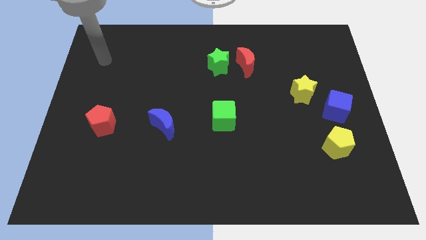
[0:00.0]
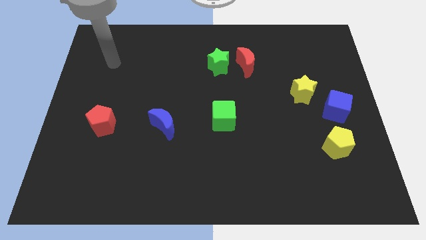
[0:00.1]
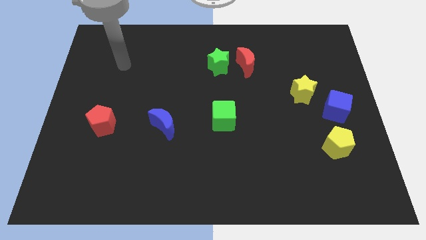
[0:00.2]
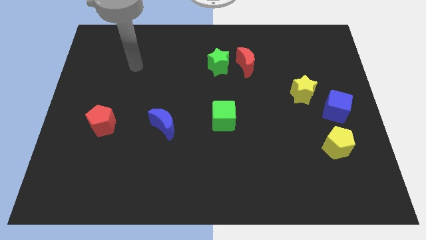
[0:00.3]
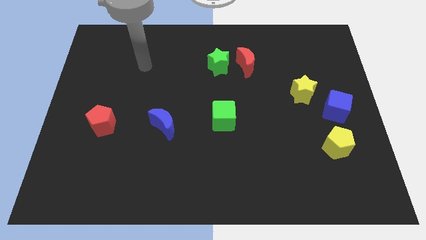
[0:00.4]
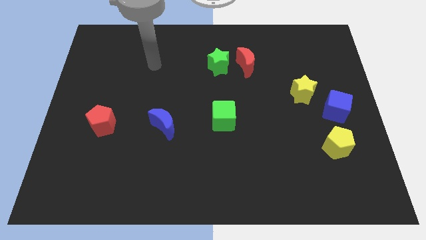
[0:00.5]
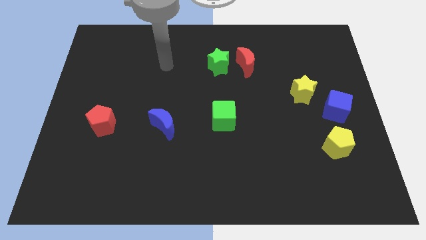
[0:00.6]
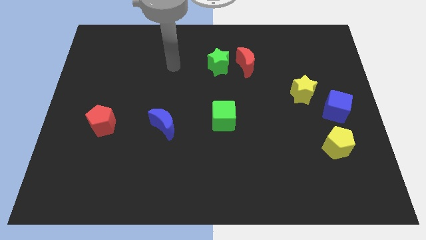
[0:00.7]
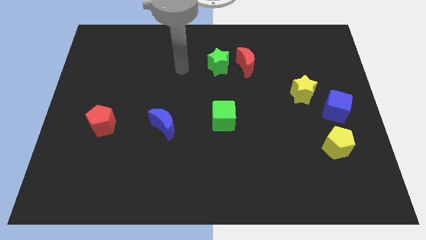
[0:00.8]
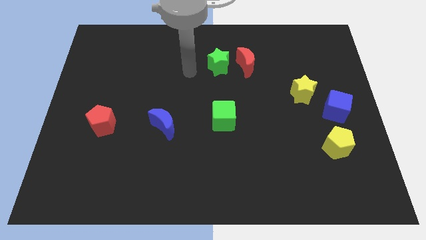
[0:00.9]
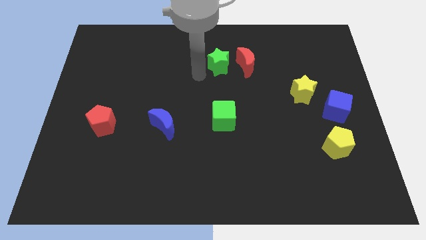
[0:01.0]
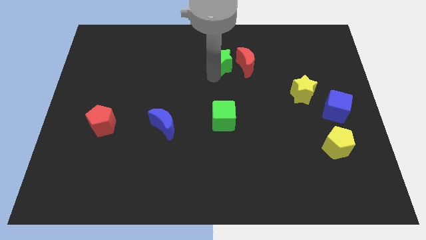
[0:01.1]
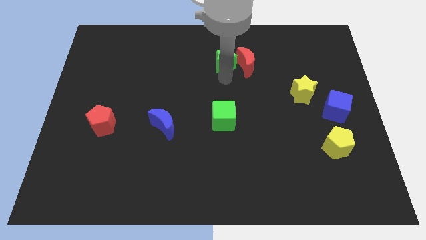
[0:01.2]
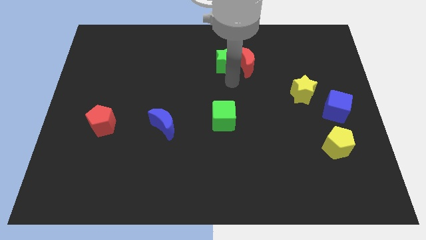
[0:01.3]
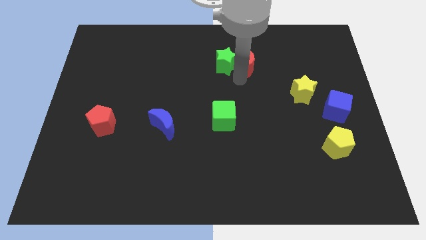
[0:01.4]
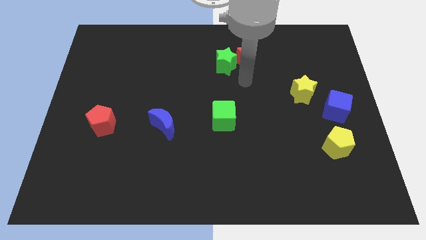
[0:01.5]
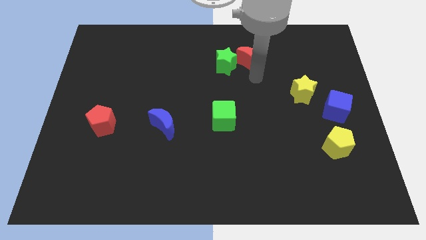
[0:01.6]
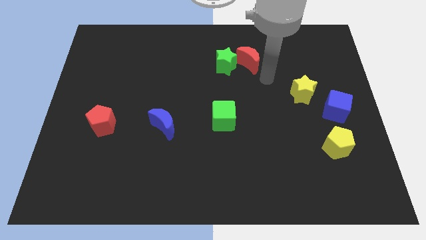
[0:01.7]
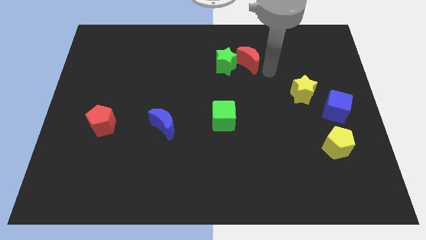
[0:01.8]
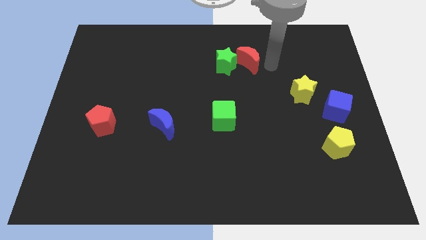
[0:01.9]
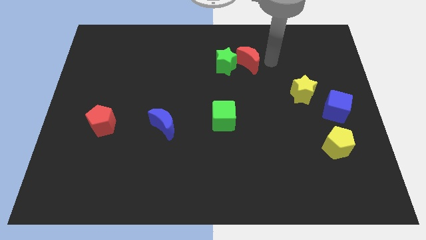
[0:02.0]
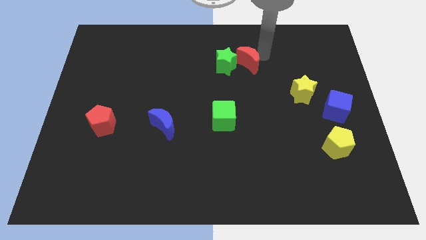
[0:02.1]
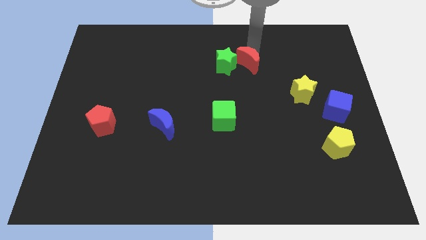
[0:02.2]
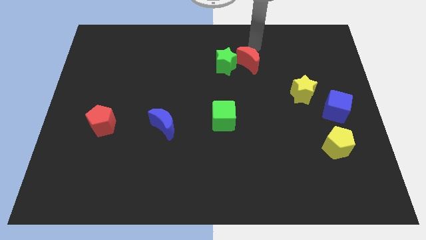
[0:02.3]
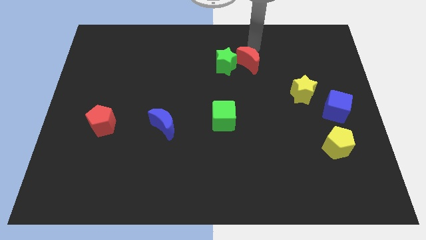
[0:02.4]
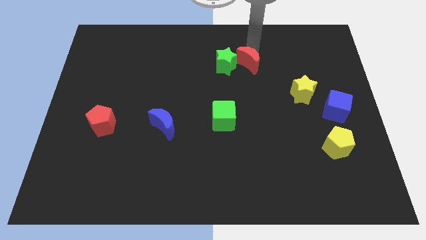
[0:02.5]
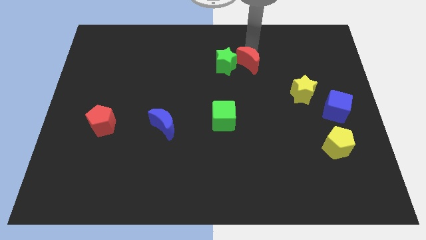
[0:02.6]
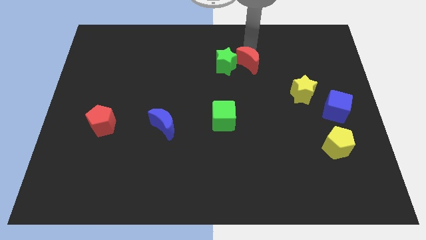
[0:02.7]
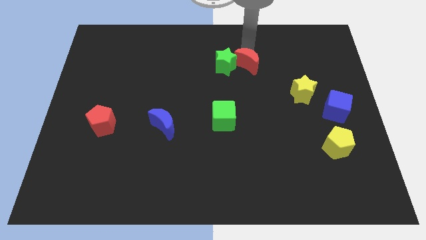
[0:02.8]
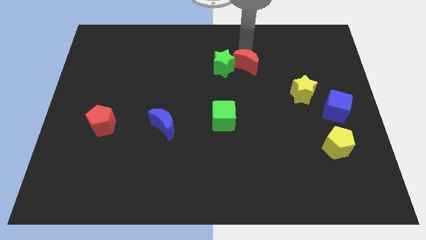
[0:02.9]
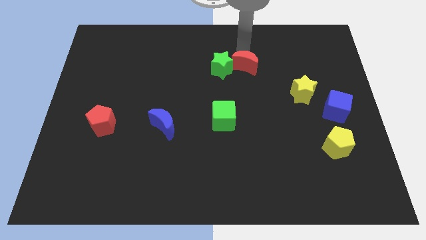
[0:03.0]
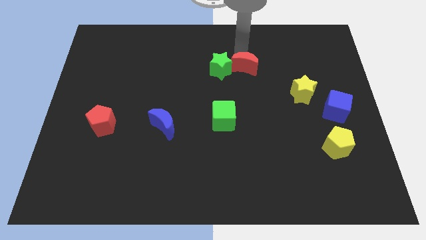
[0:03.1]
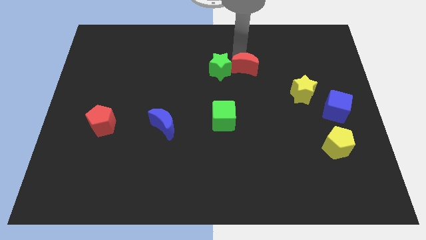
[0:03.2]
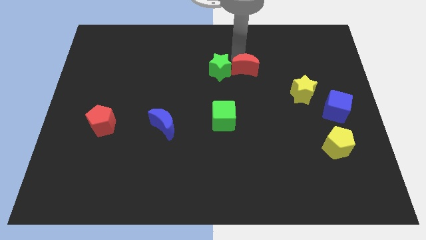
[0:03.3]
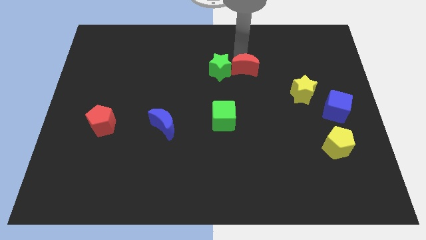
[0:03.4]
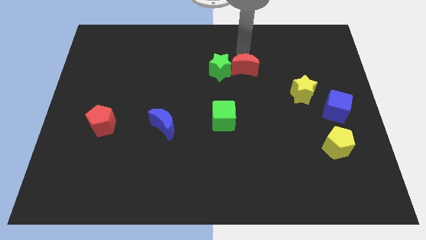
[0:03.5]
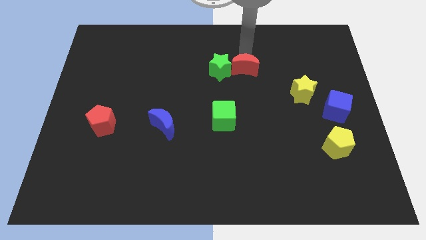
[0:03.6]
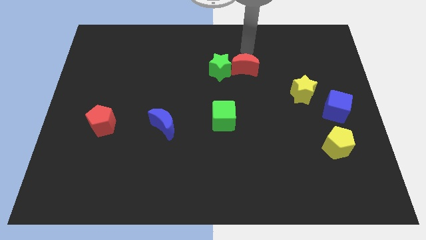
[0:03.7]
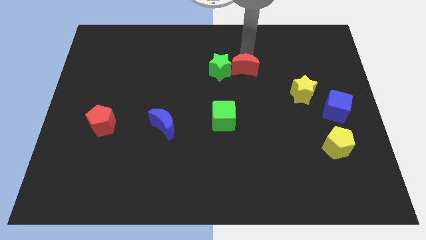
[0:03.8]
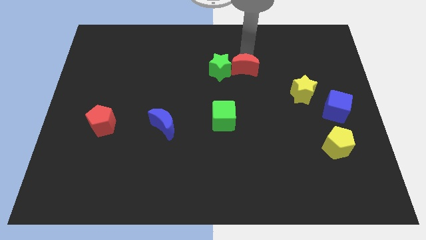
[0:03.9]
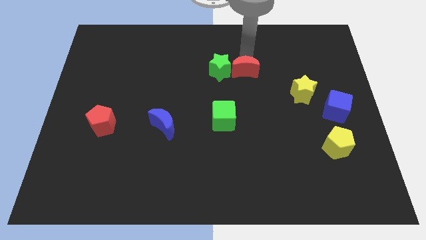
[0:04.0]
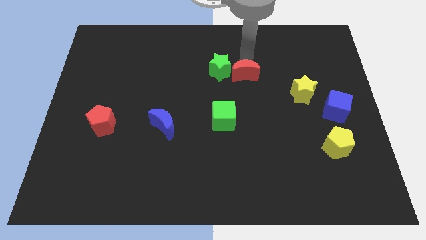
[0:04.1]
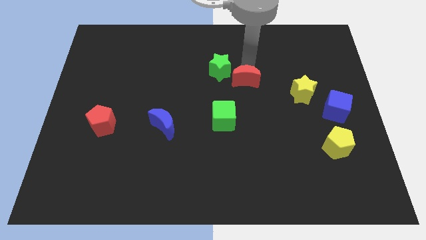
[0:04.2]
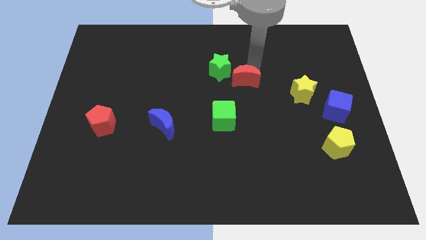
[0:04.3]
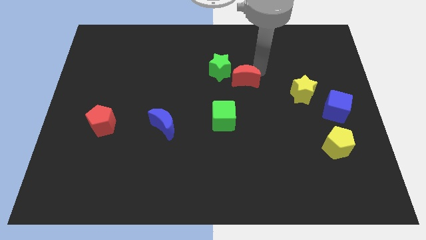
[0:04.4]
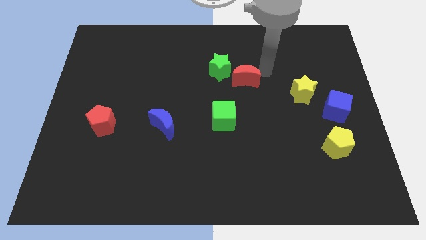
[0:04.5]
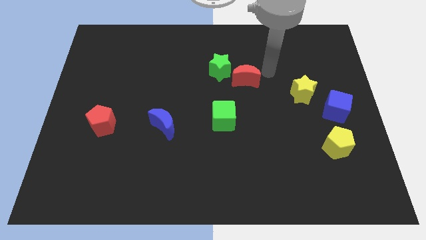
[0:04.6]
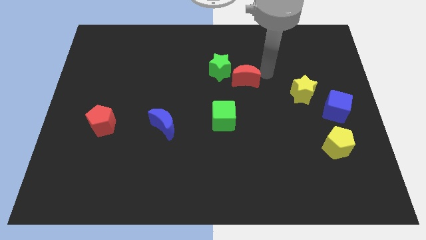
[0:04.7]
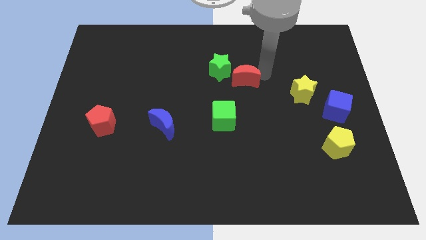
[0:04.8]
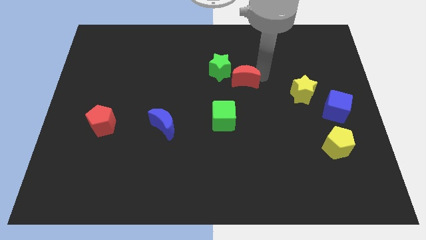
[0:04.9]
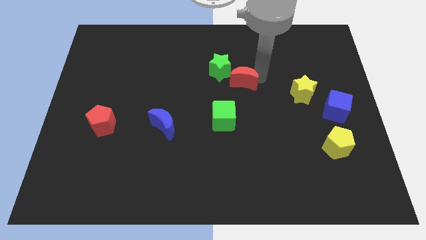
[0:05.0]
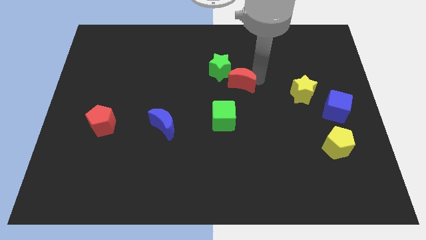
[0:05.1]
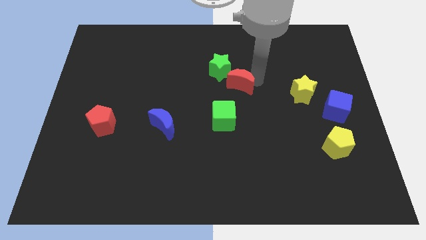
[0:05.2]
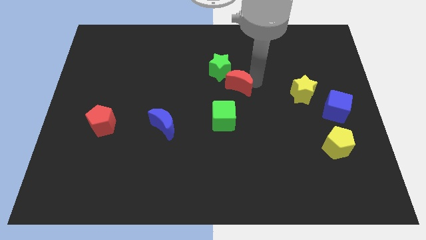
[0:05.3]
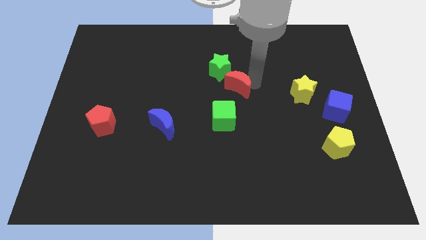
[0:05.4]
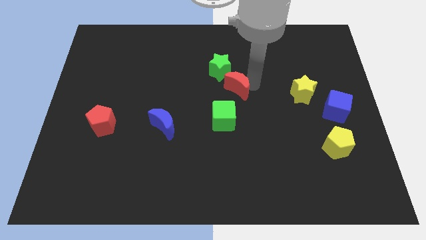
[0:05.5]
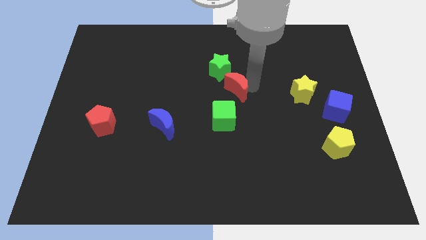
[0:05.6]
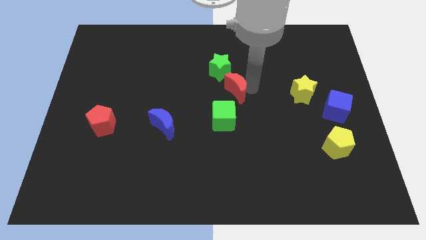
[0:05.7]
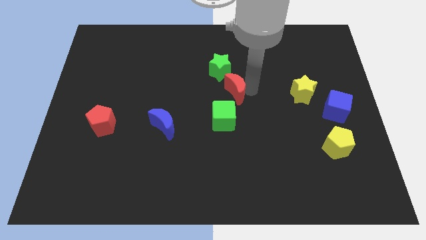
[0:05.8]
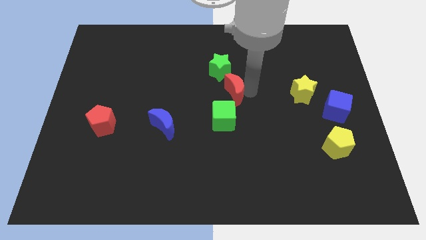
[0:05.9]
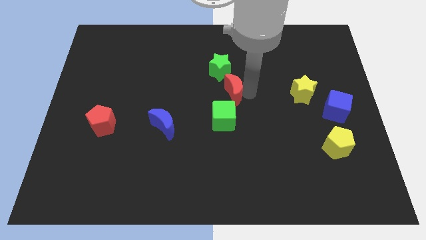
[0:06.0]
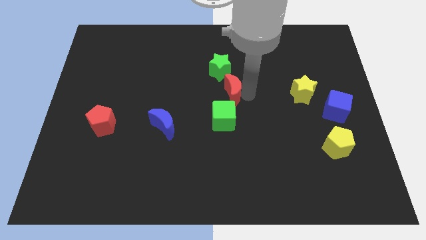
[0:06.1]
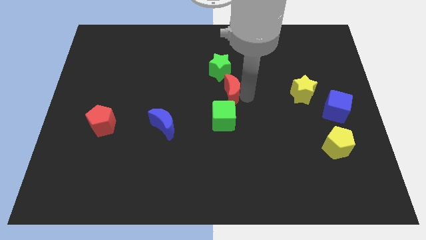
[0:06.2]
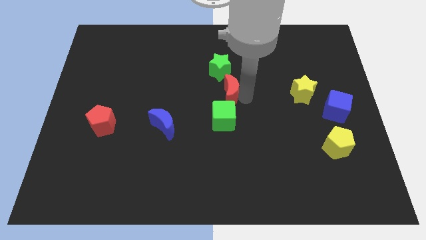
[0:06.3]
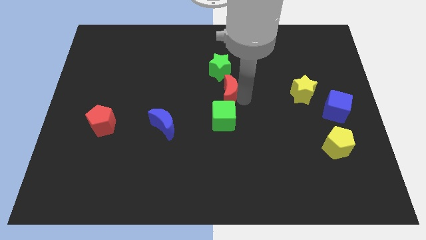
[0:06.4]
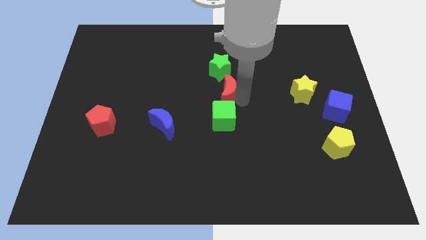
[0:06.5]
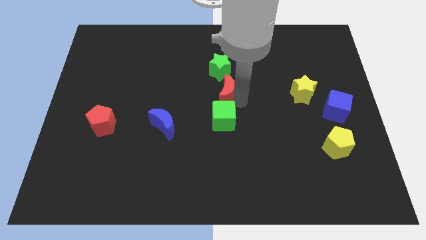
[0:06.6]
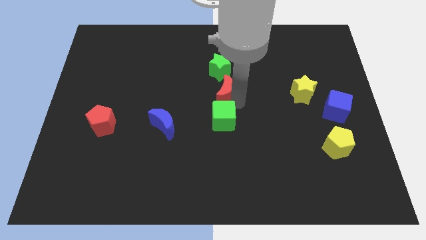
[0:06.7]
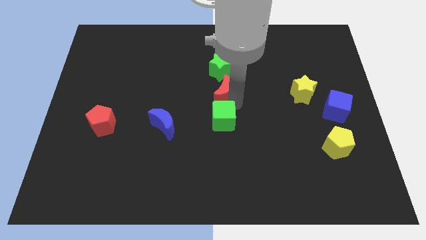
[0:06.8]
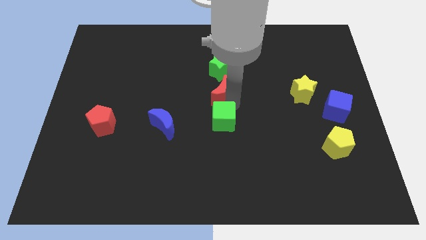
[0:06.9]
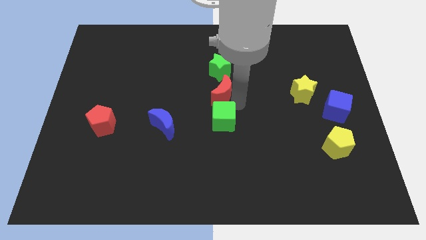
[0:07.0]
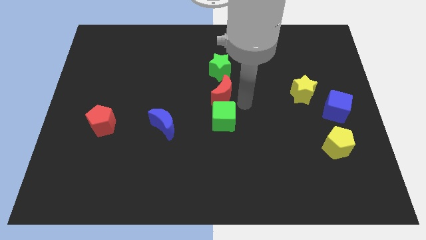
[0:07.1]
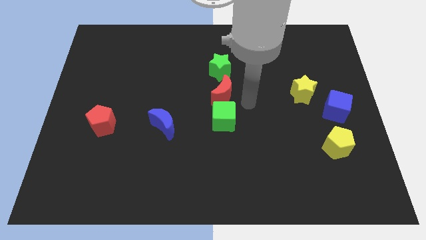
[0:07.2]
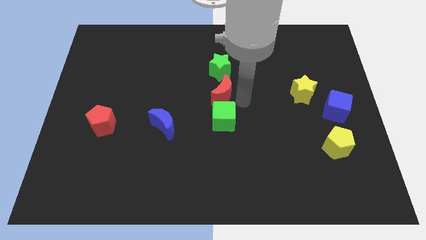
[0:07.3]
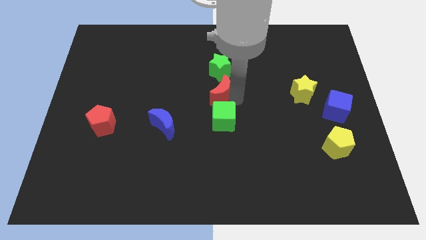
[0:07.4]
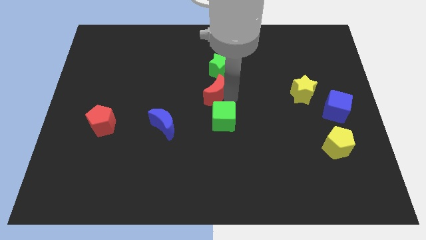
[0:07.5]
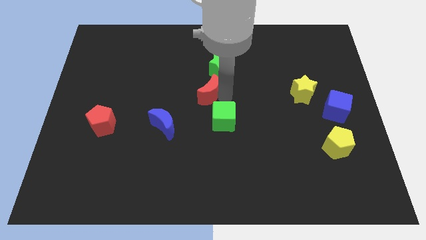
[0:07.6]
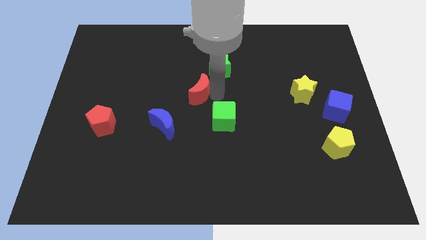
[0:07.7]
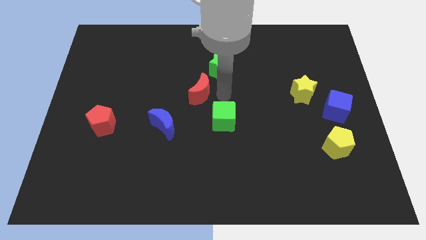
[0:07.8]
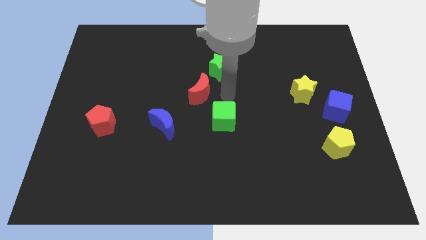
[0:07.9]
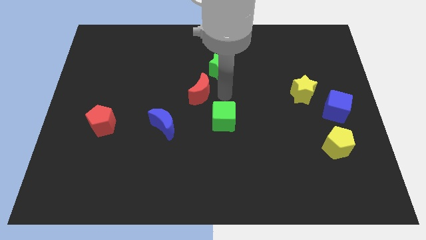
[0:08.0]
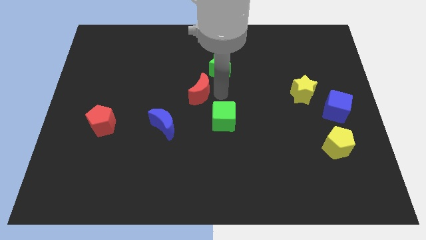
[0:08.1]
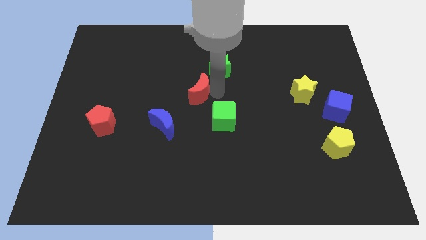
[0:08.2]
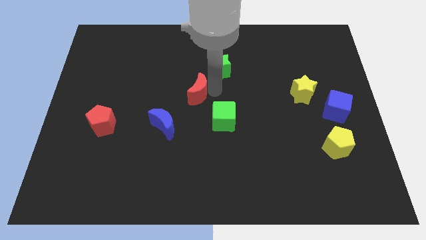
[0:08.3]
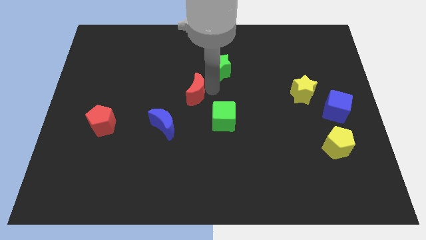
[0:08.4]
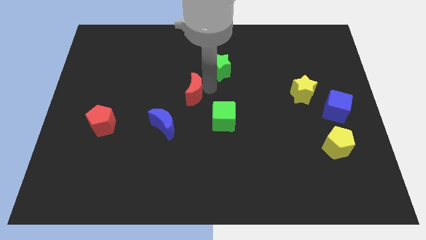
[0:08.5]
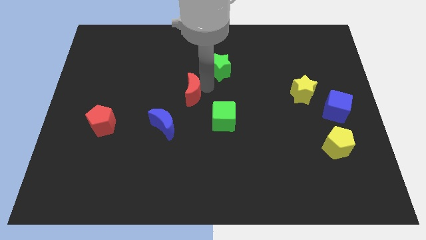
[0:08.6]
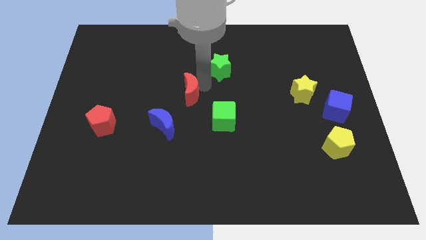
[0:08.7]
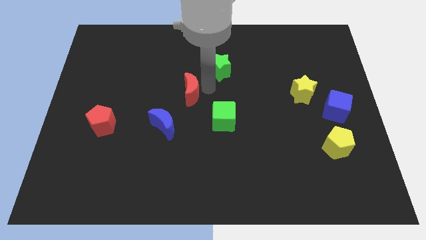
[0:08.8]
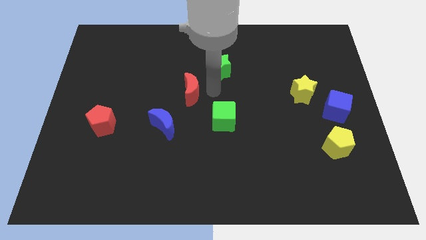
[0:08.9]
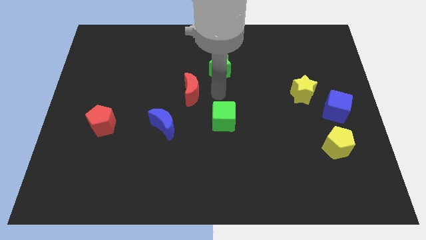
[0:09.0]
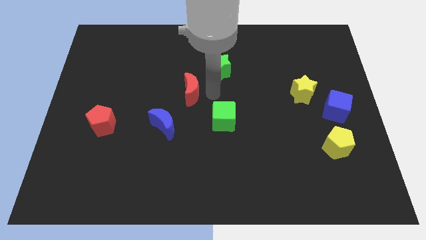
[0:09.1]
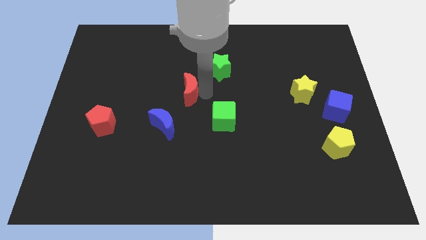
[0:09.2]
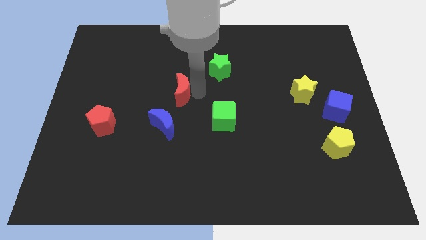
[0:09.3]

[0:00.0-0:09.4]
slide the red moon to the top side of the blue moon
